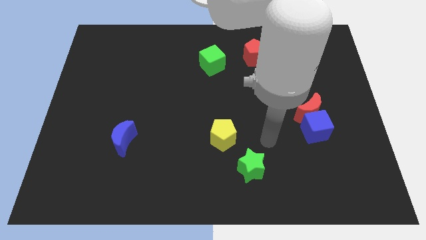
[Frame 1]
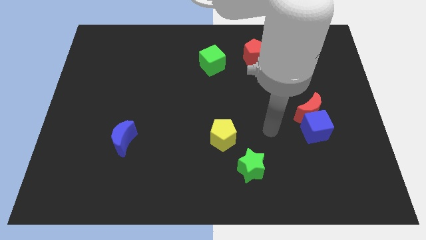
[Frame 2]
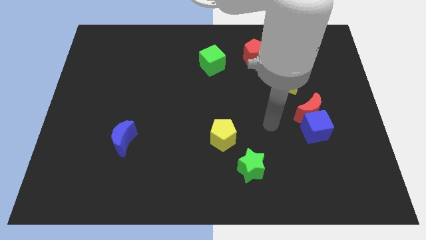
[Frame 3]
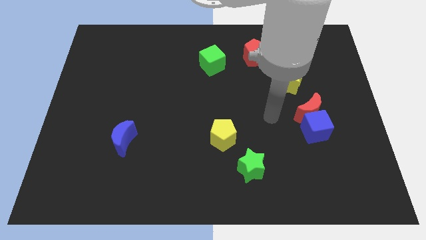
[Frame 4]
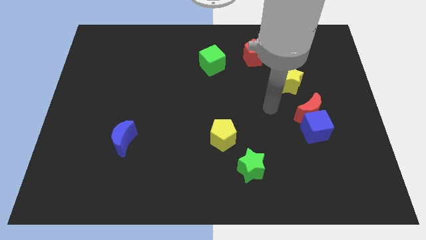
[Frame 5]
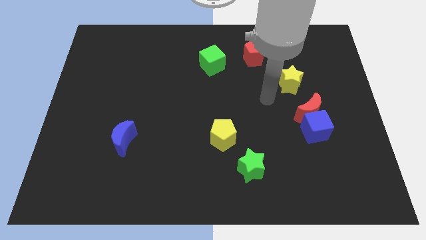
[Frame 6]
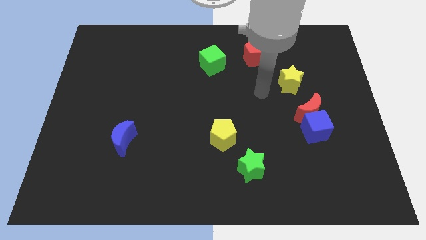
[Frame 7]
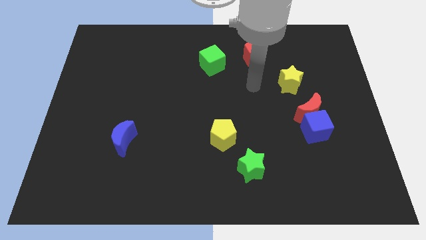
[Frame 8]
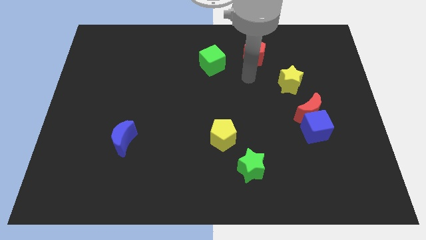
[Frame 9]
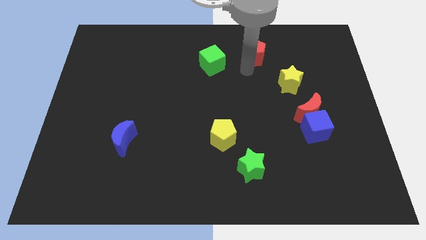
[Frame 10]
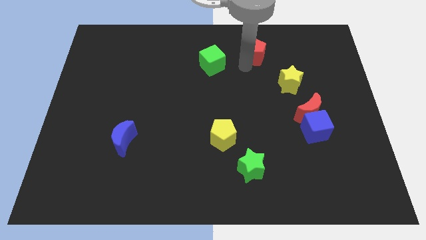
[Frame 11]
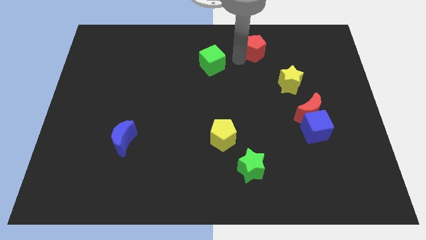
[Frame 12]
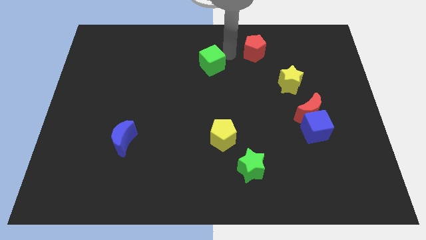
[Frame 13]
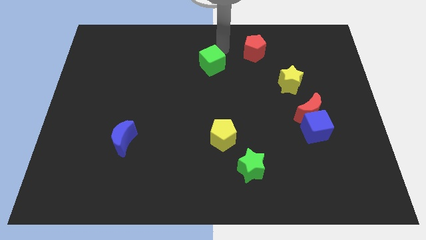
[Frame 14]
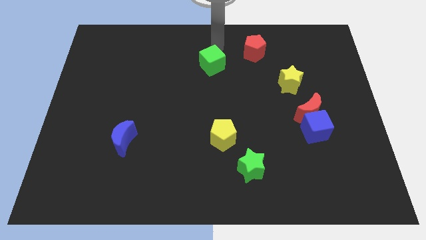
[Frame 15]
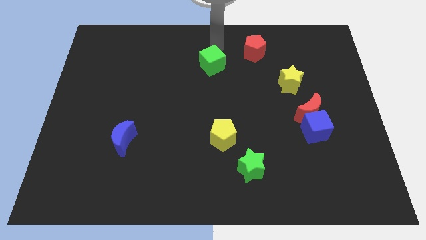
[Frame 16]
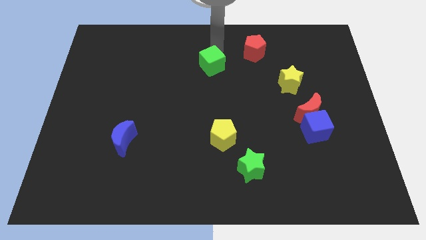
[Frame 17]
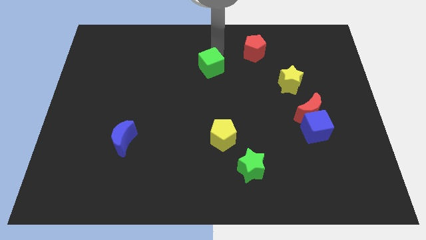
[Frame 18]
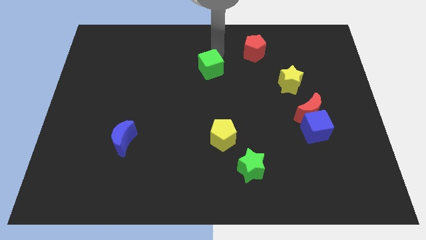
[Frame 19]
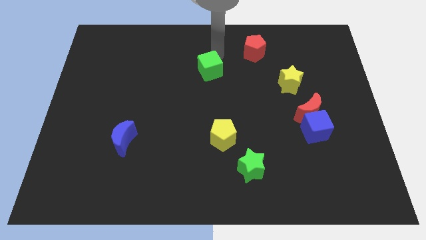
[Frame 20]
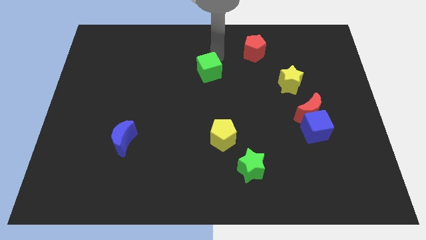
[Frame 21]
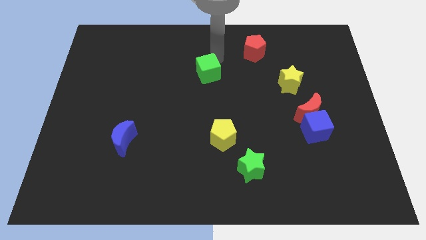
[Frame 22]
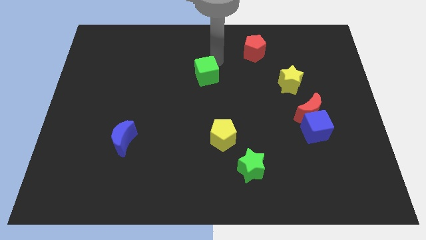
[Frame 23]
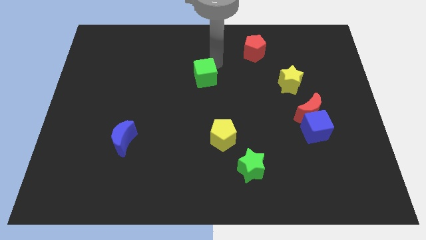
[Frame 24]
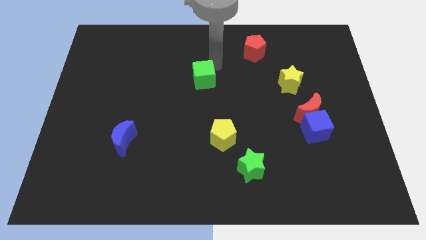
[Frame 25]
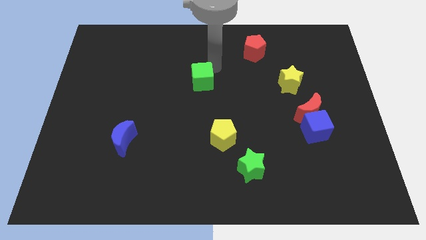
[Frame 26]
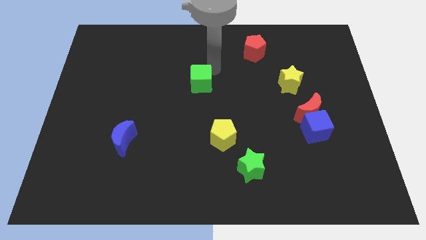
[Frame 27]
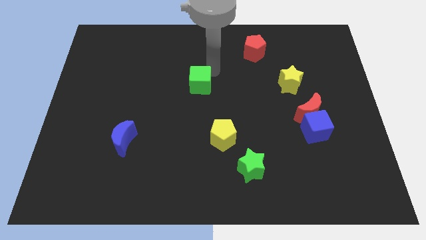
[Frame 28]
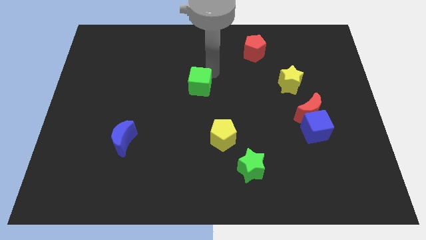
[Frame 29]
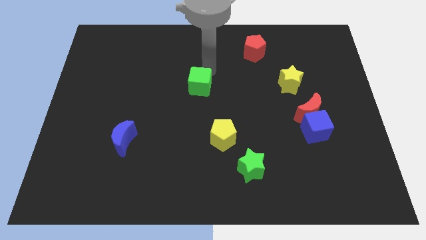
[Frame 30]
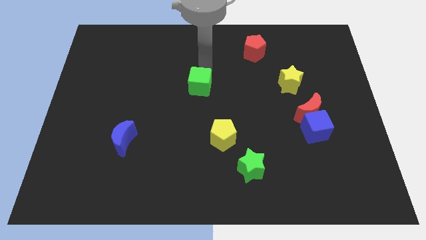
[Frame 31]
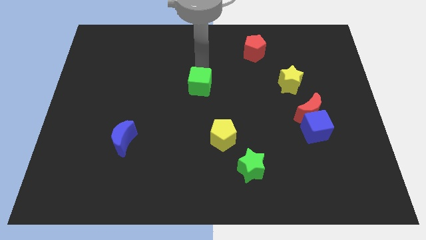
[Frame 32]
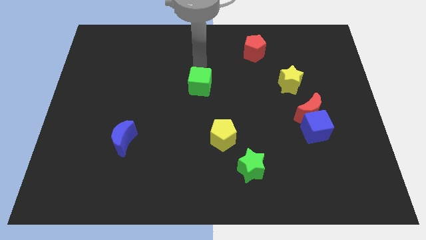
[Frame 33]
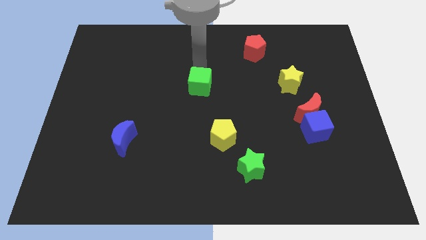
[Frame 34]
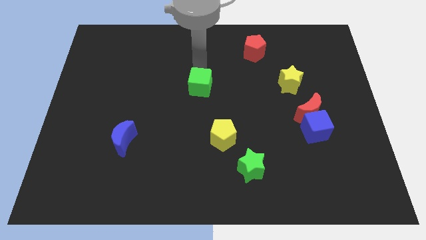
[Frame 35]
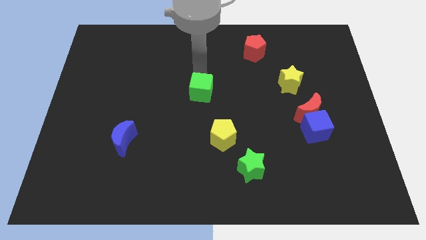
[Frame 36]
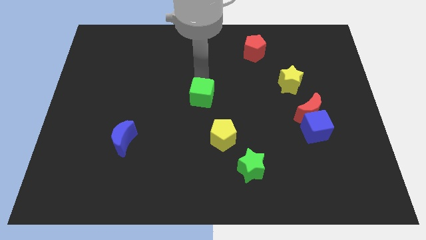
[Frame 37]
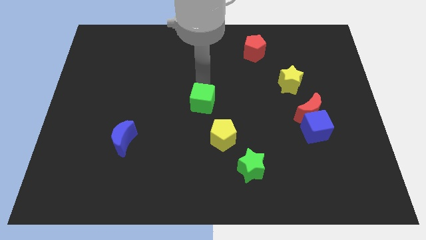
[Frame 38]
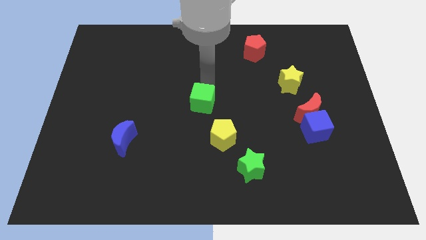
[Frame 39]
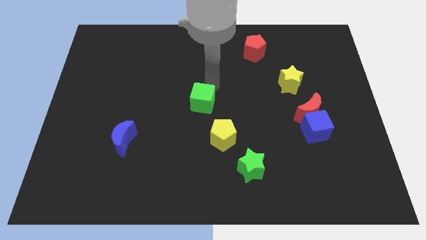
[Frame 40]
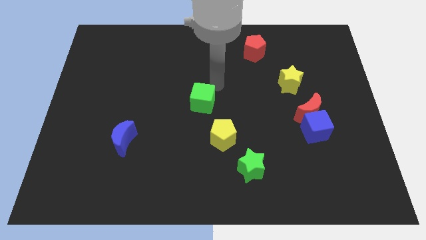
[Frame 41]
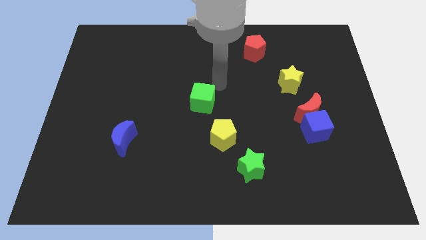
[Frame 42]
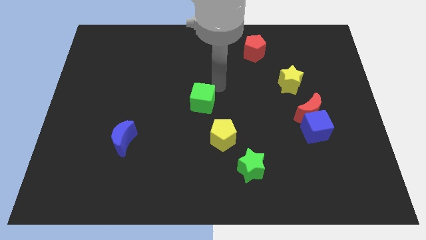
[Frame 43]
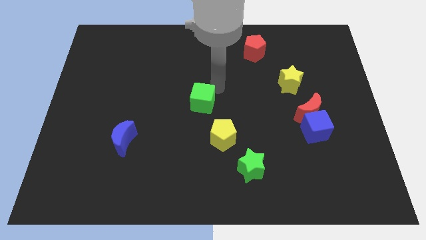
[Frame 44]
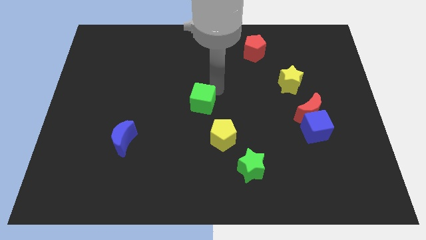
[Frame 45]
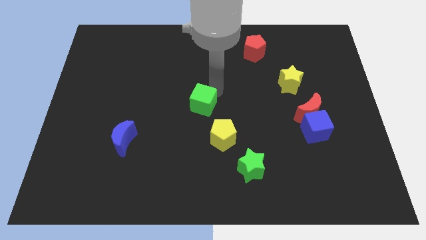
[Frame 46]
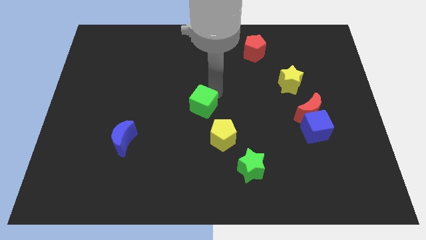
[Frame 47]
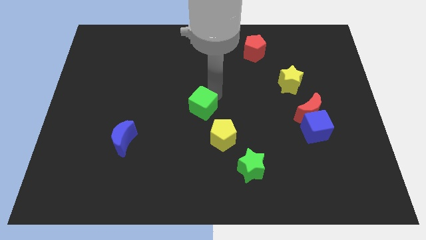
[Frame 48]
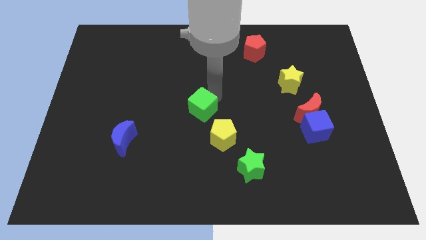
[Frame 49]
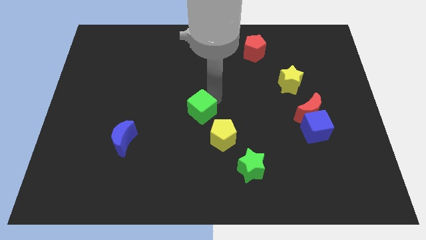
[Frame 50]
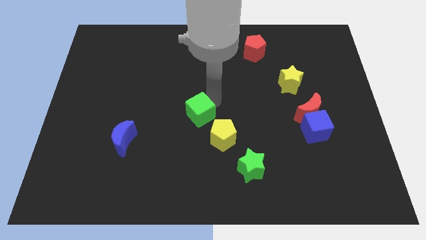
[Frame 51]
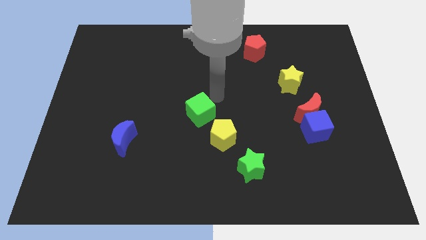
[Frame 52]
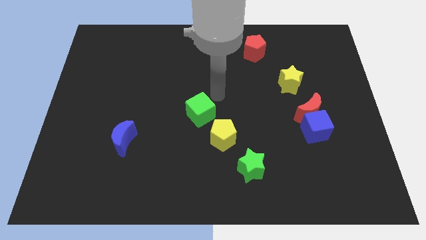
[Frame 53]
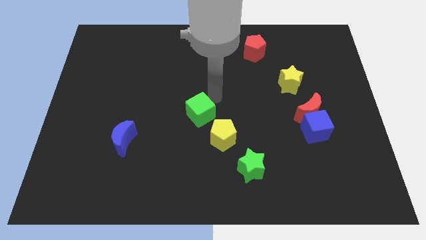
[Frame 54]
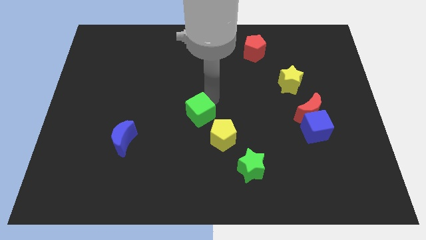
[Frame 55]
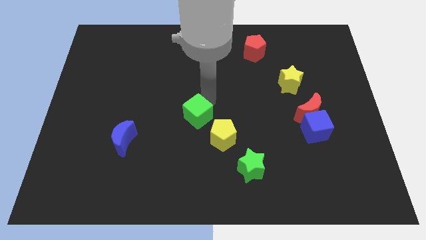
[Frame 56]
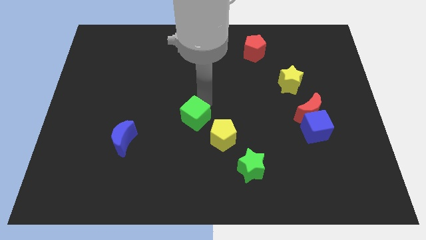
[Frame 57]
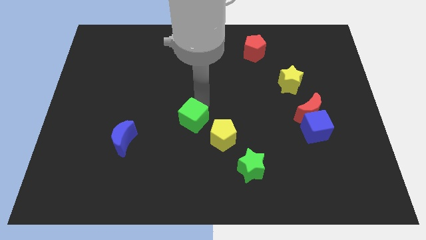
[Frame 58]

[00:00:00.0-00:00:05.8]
move the green cube left of the yellow pentagon
